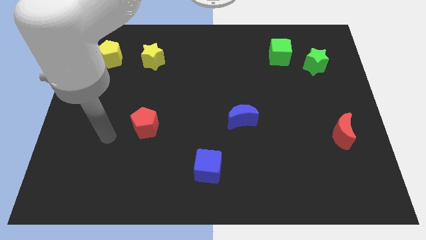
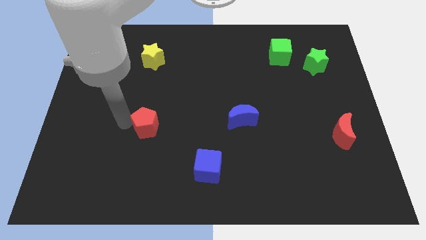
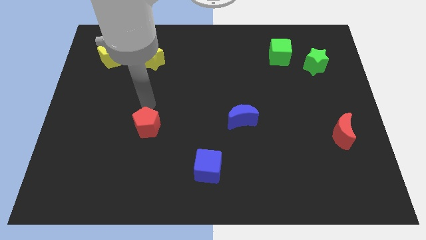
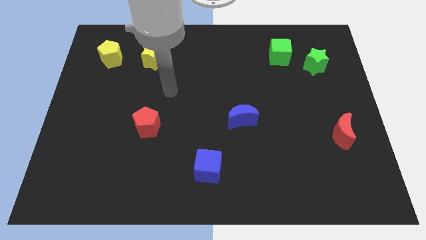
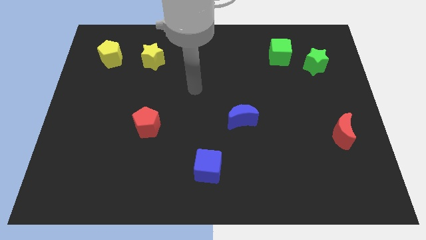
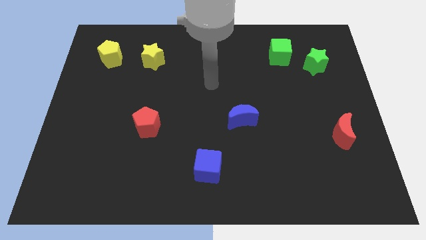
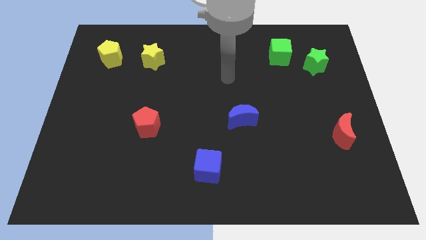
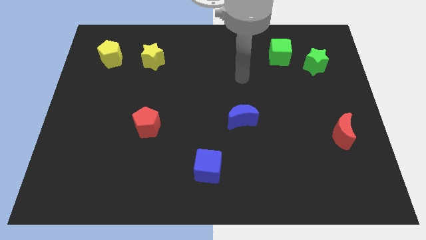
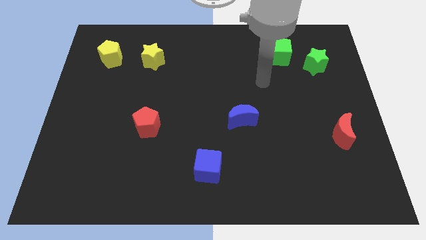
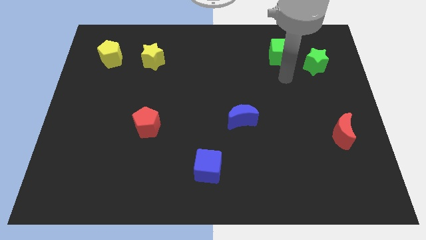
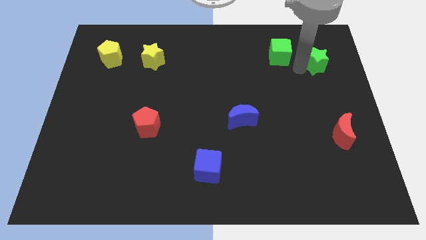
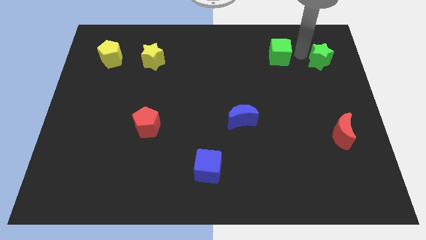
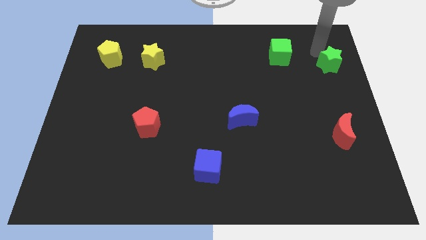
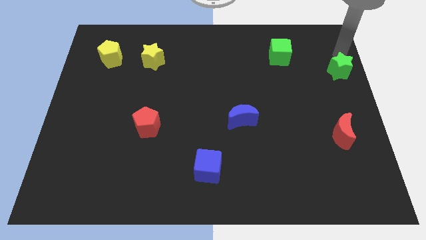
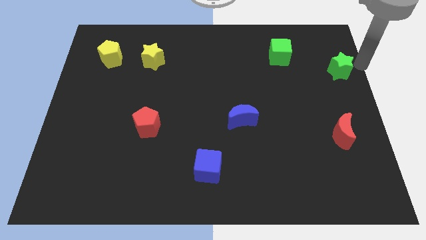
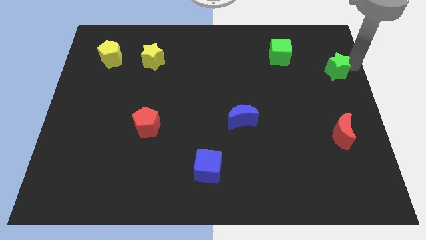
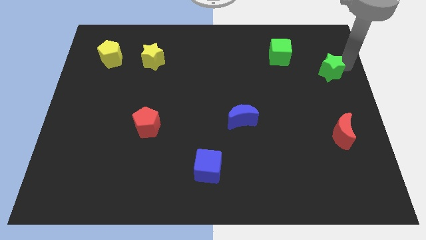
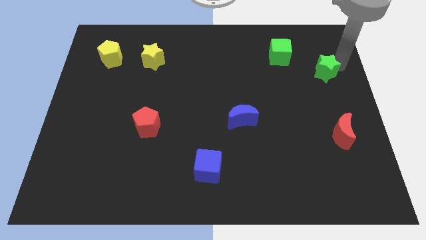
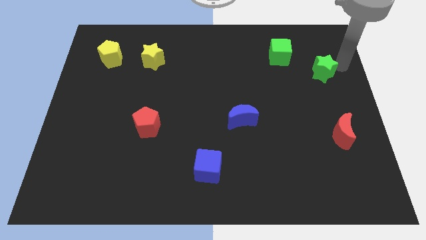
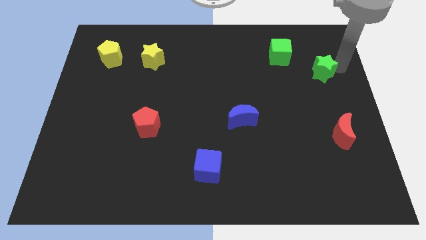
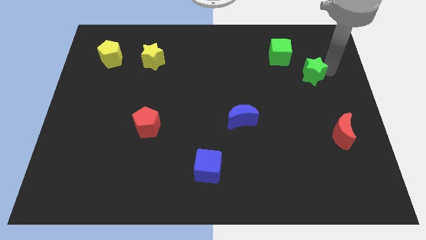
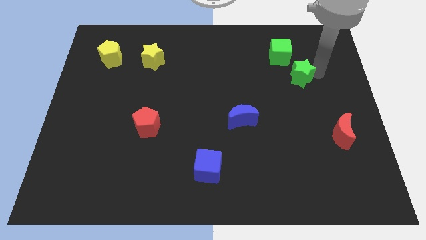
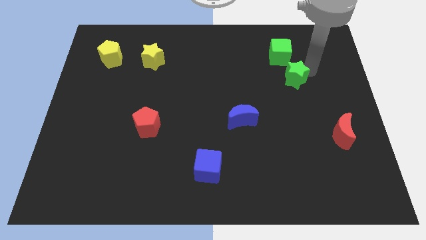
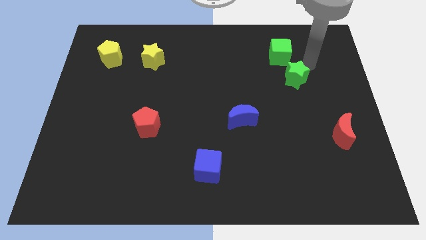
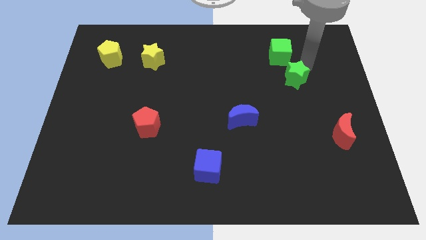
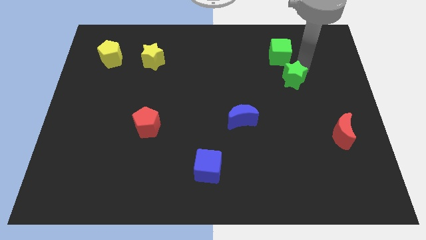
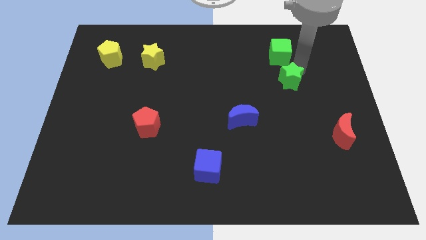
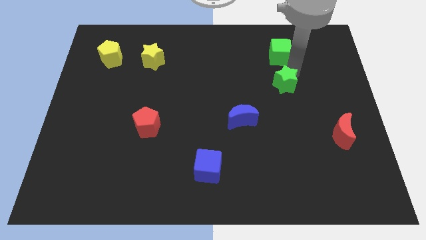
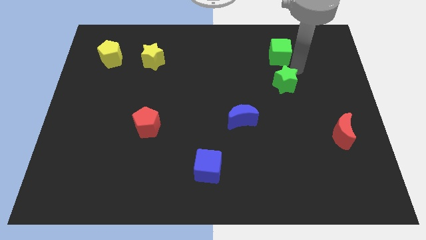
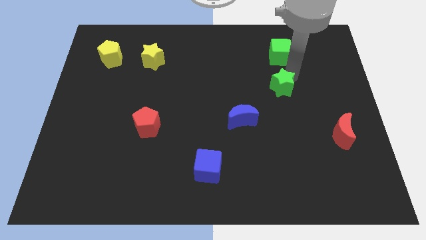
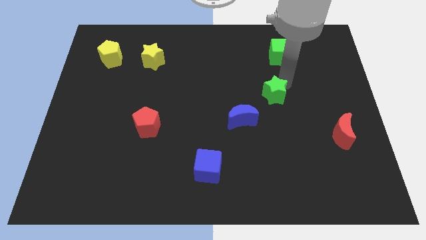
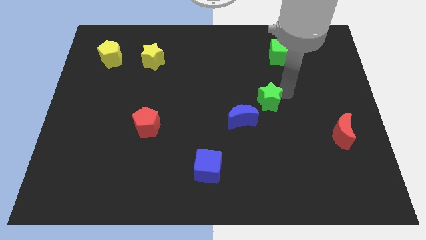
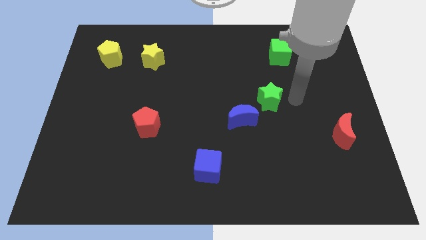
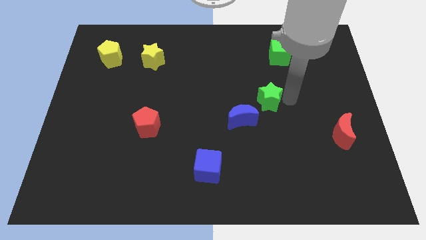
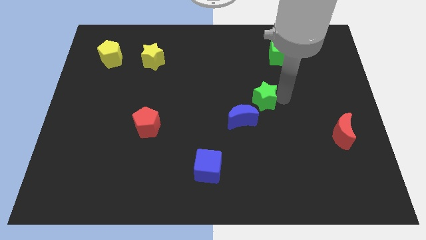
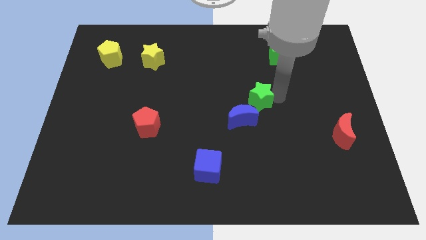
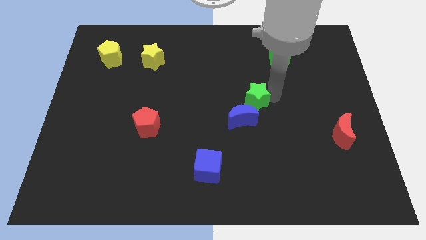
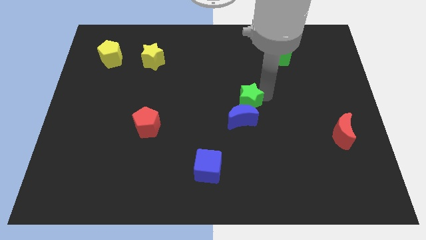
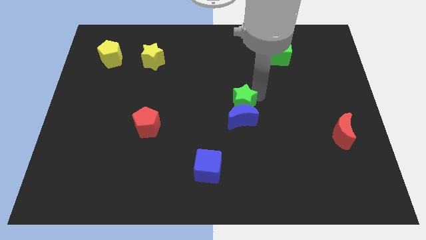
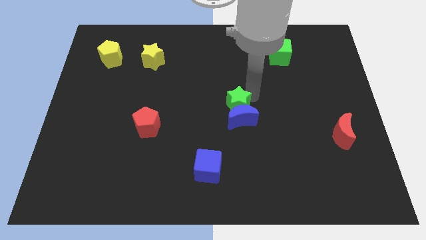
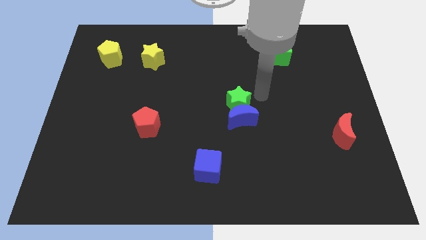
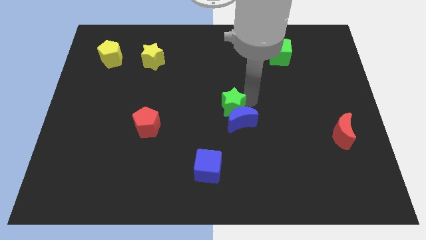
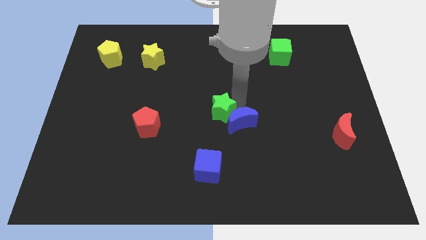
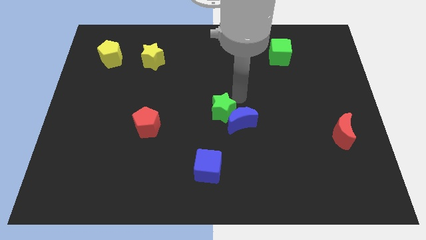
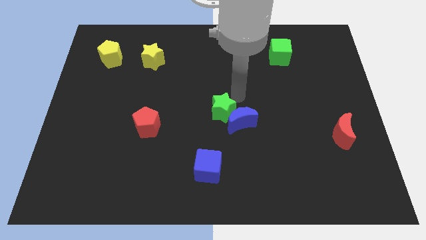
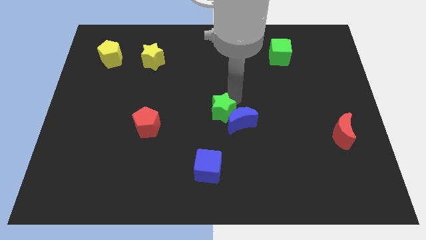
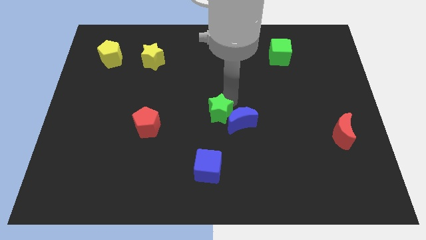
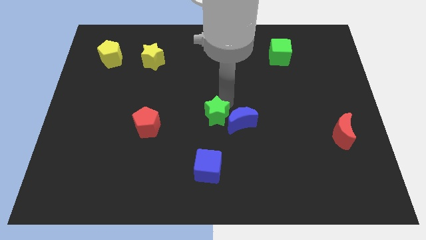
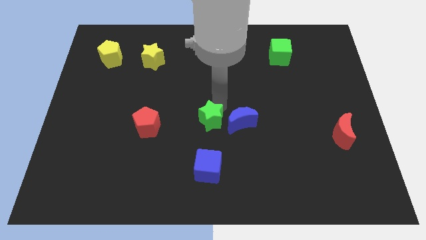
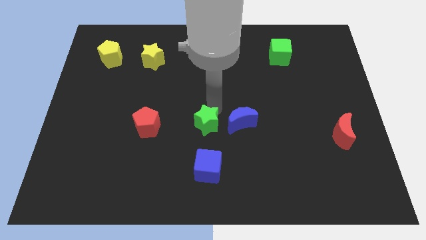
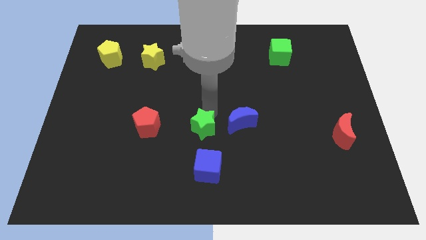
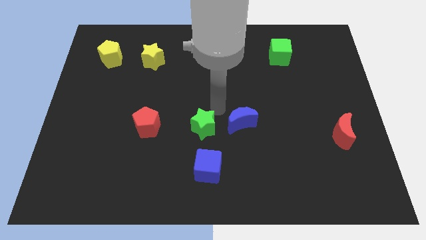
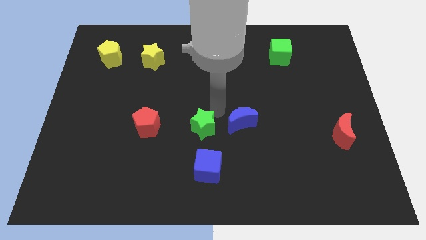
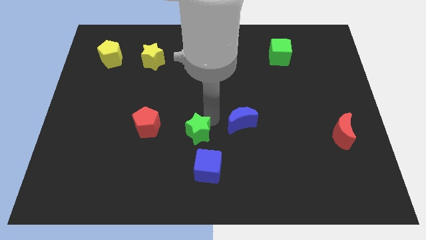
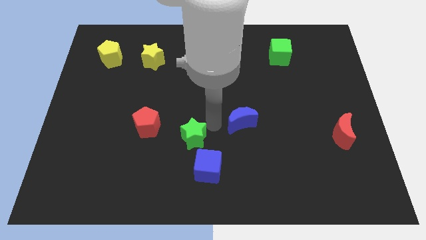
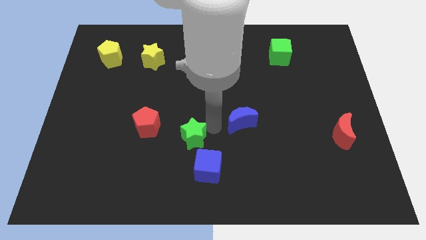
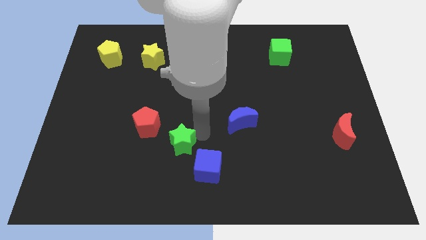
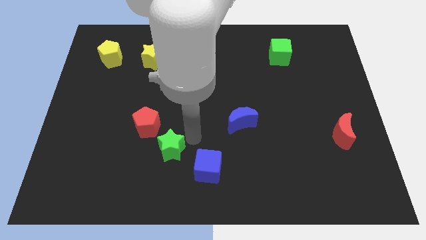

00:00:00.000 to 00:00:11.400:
put the green star left of the blue cube

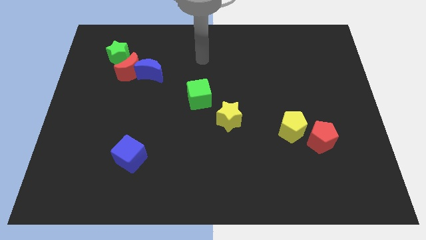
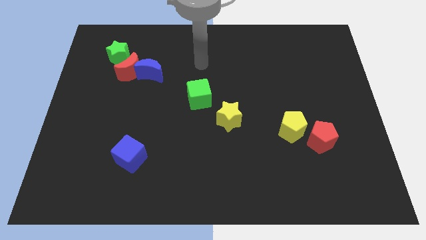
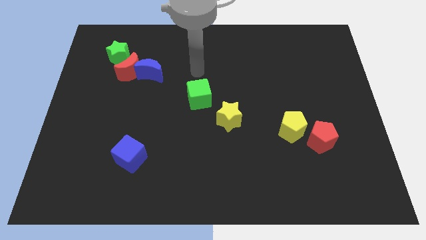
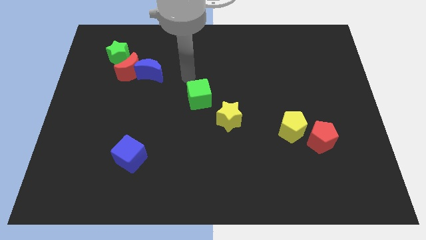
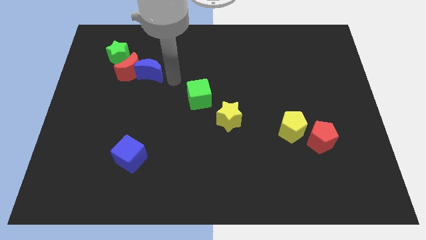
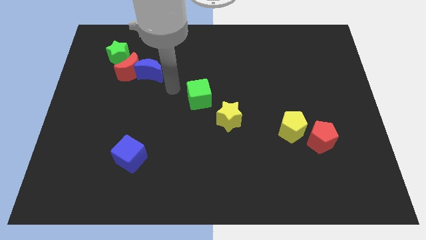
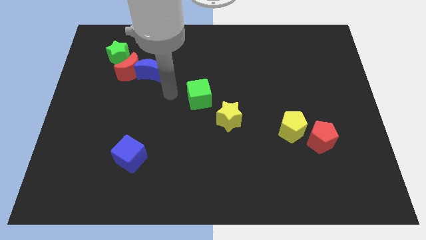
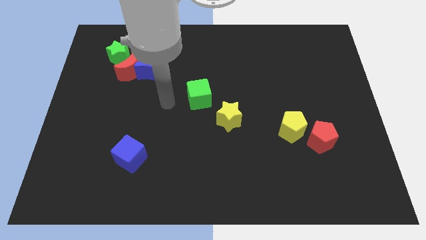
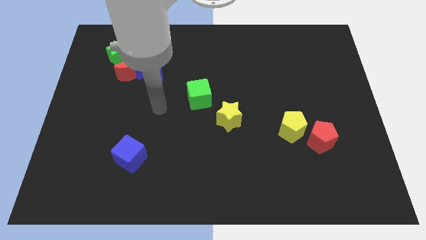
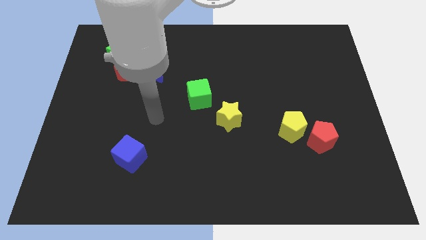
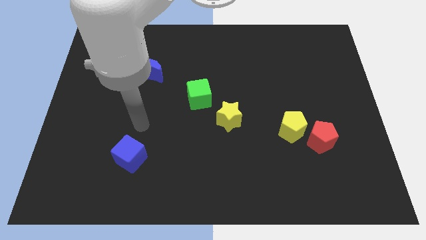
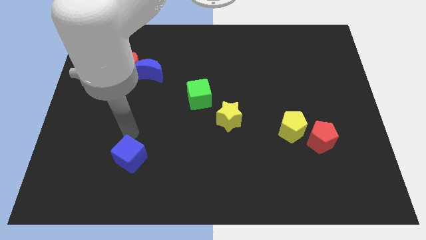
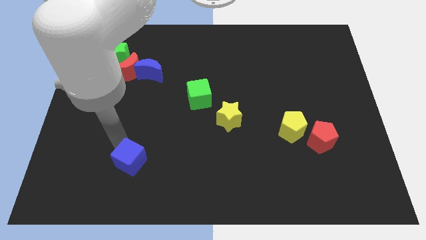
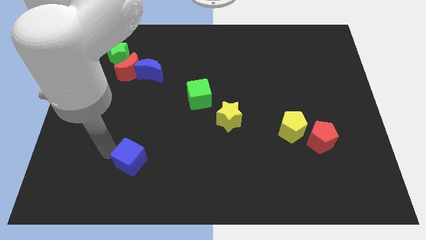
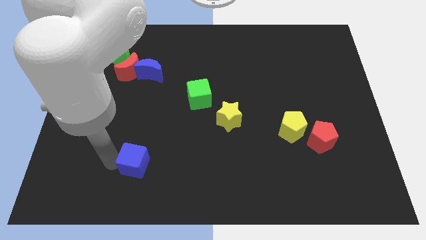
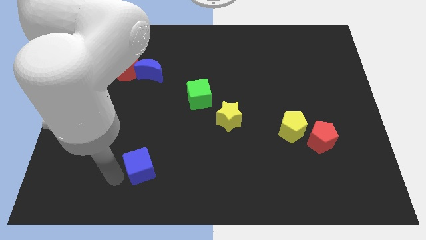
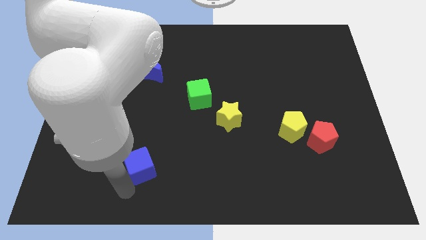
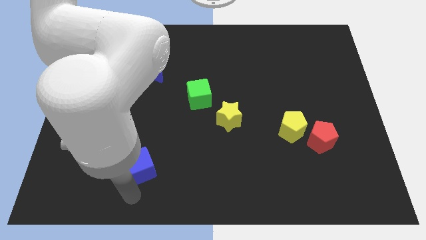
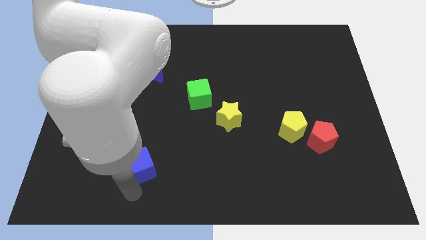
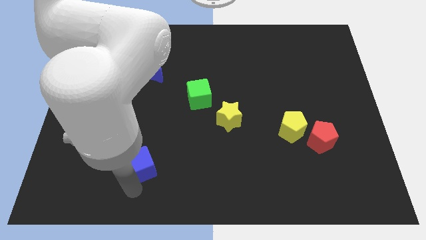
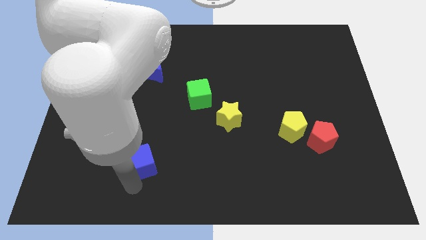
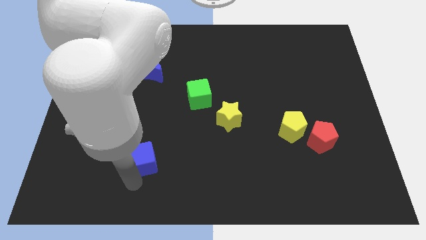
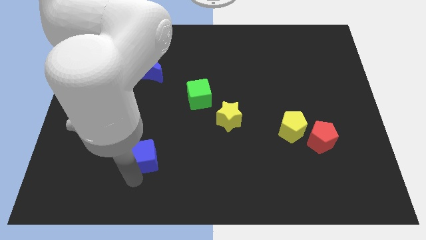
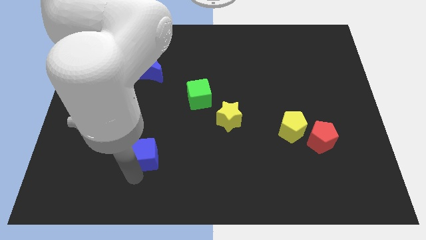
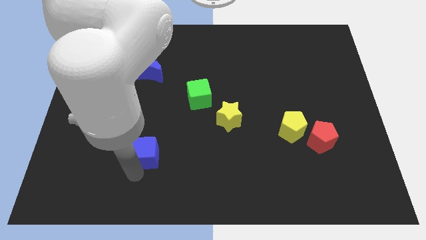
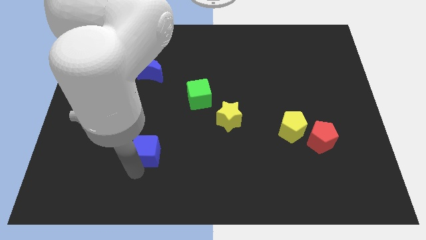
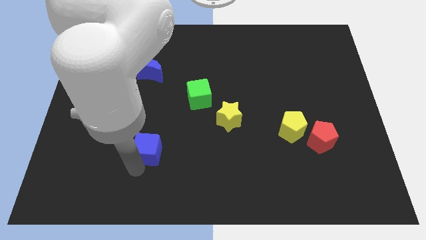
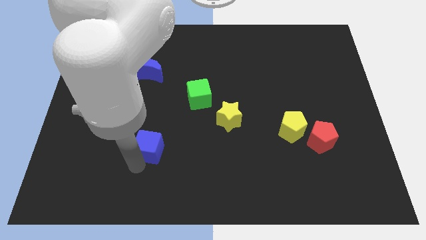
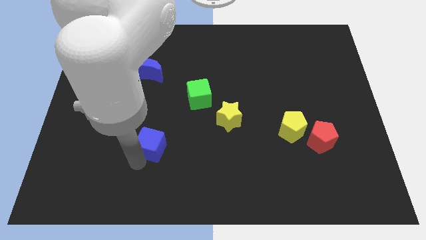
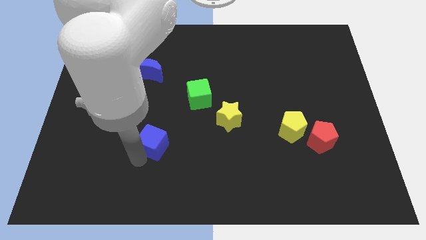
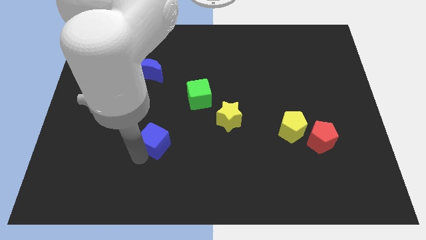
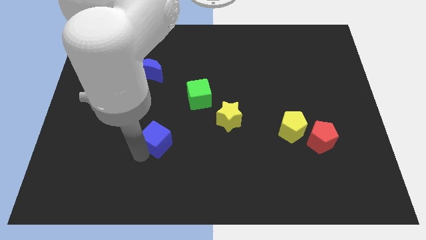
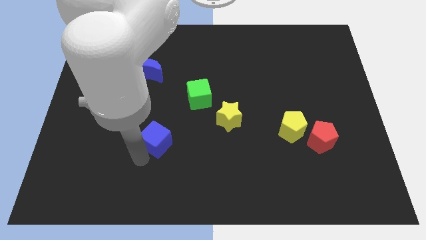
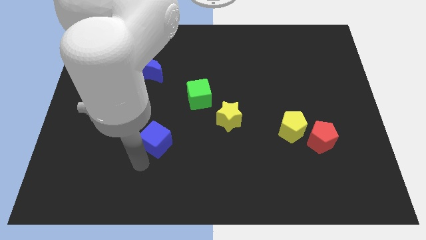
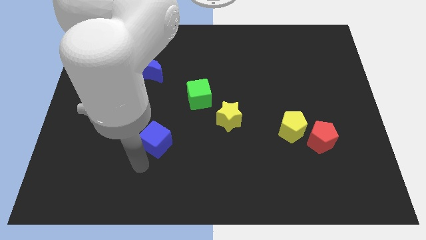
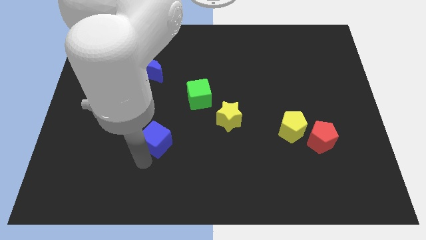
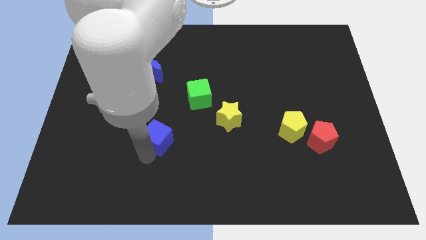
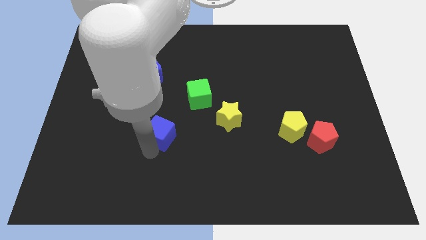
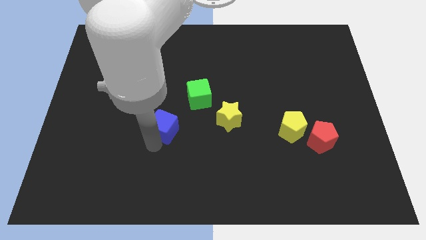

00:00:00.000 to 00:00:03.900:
push the blue cube to the left of the yellow star
